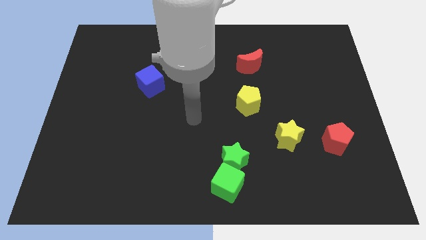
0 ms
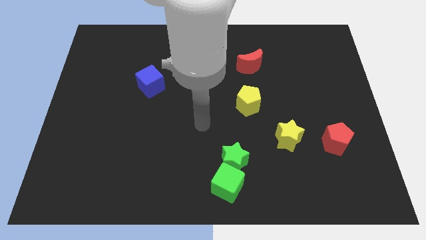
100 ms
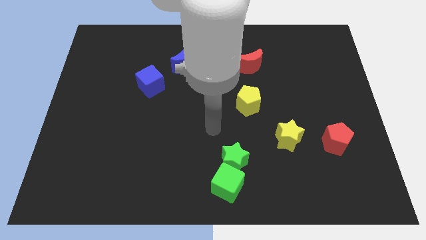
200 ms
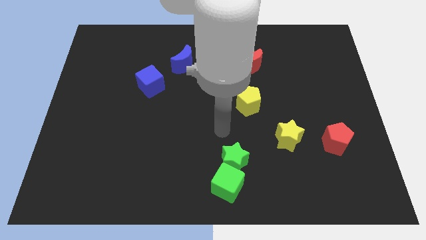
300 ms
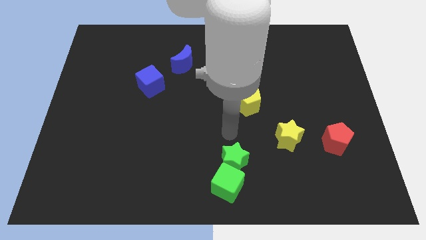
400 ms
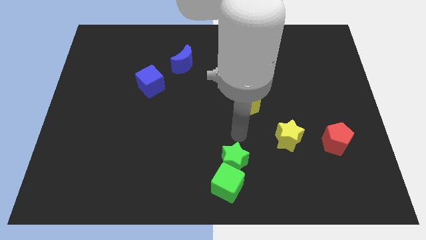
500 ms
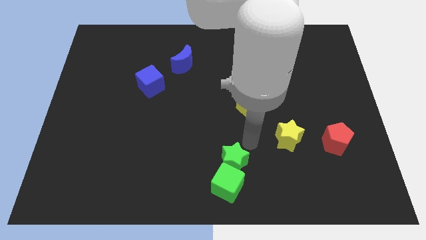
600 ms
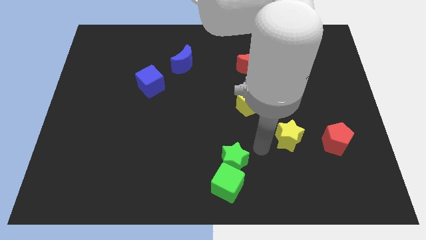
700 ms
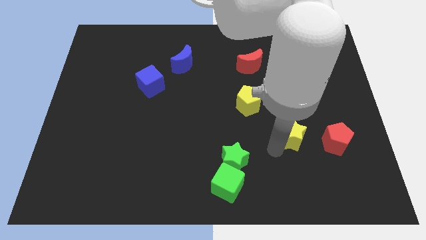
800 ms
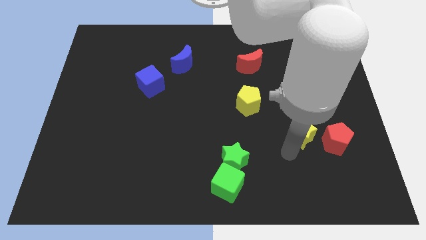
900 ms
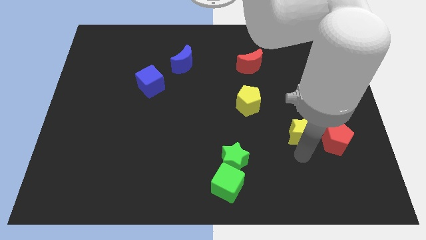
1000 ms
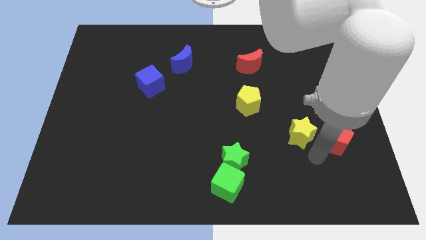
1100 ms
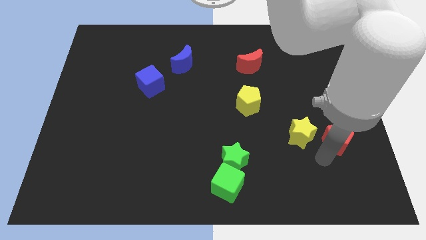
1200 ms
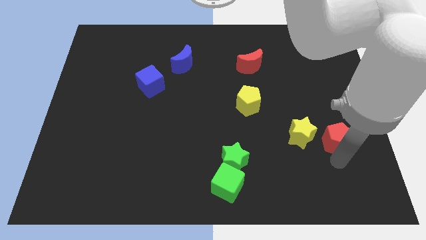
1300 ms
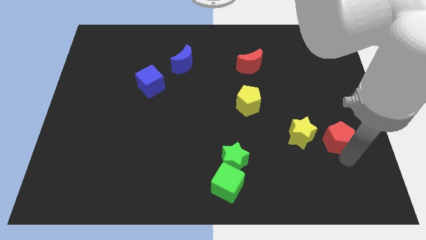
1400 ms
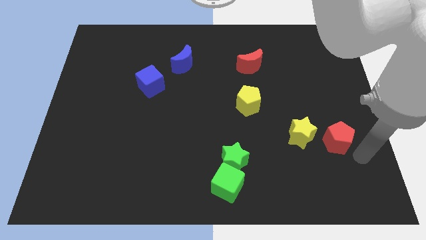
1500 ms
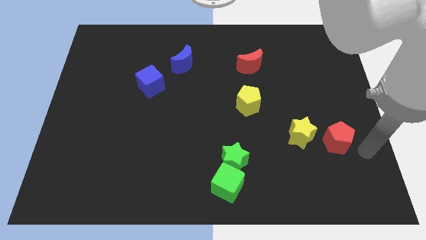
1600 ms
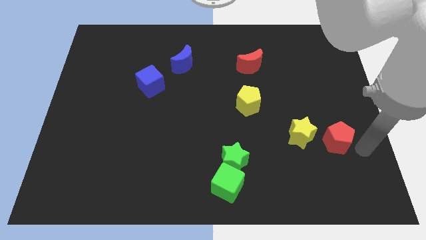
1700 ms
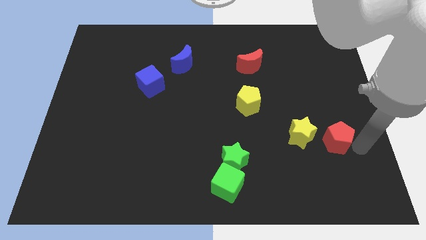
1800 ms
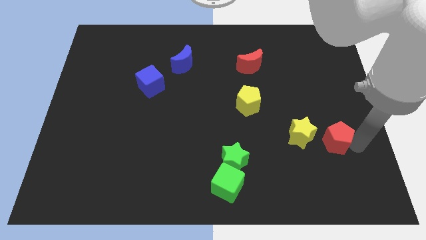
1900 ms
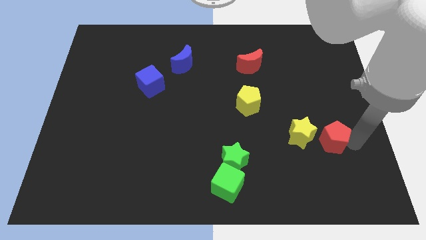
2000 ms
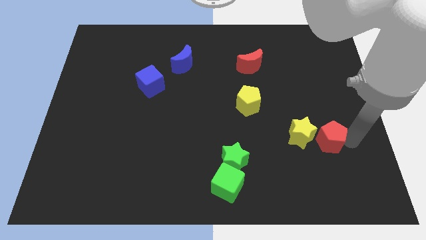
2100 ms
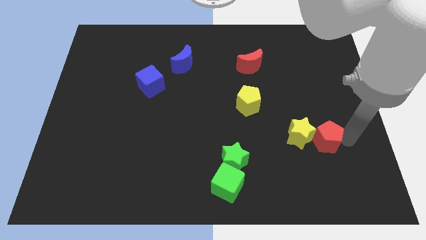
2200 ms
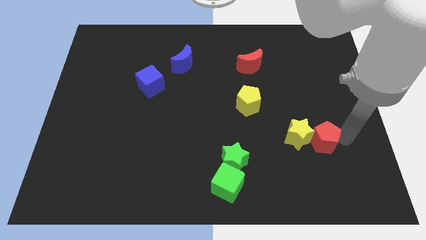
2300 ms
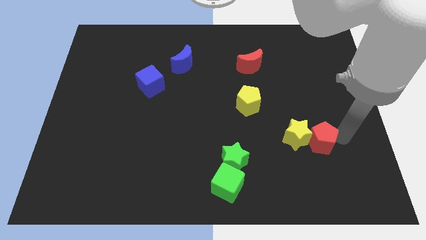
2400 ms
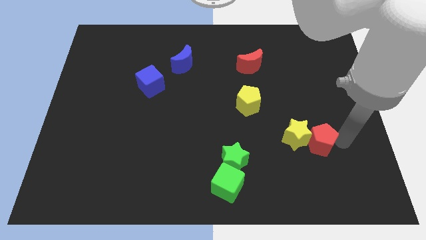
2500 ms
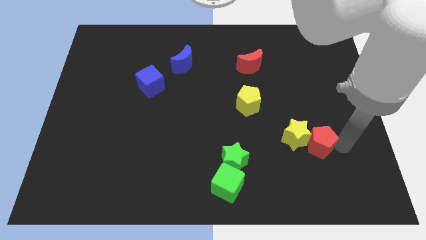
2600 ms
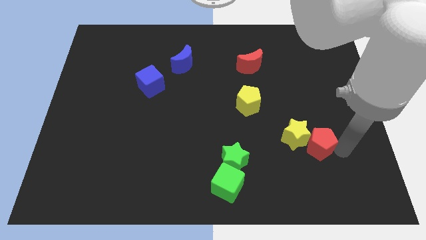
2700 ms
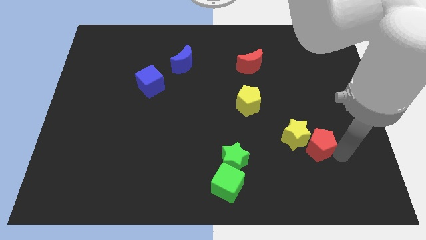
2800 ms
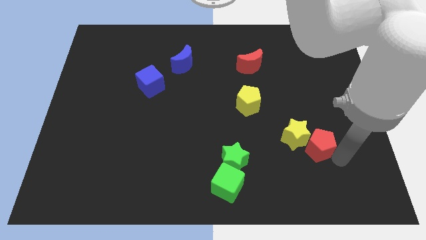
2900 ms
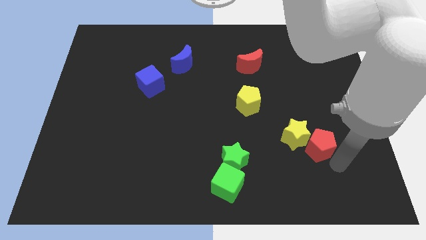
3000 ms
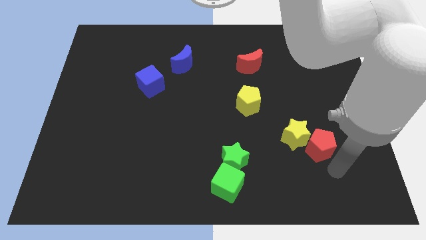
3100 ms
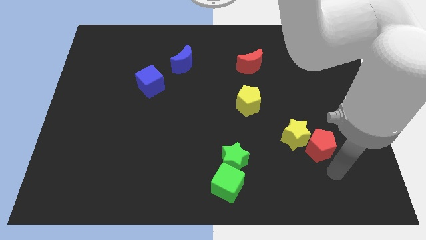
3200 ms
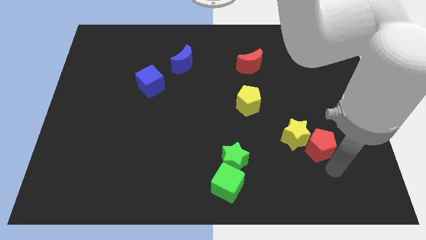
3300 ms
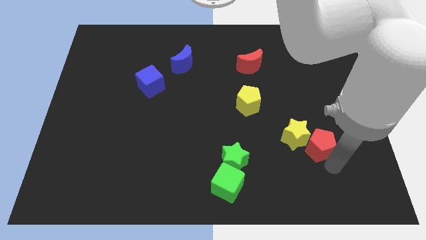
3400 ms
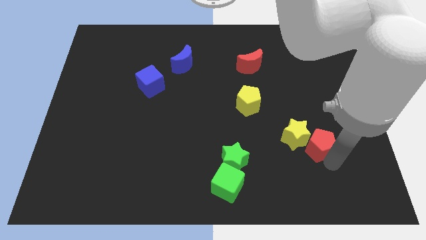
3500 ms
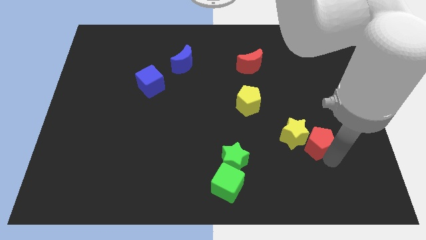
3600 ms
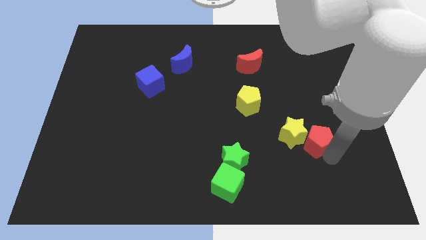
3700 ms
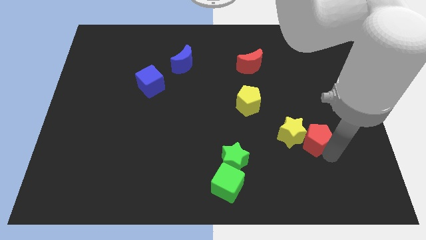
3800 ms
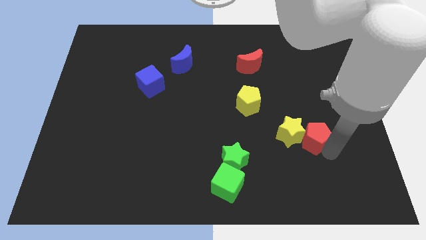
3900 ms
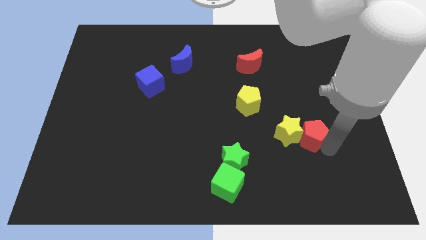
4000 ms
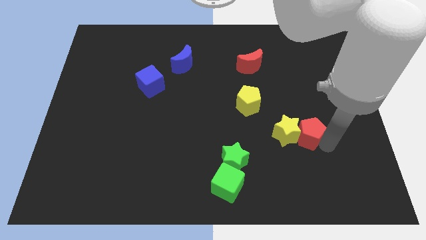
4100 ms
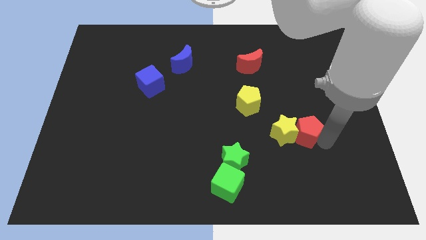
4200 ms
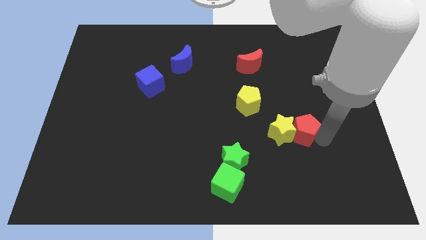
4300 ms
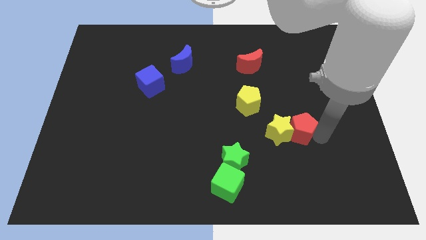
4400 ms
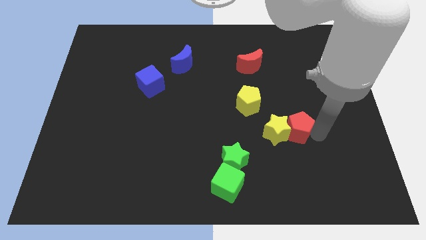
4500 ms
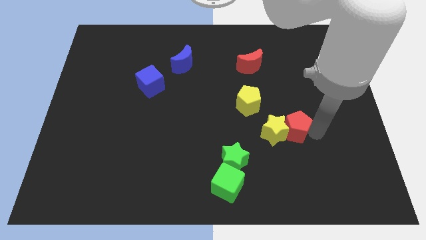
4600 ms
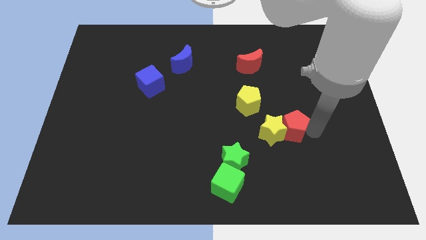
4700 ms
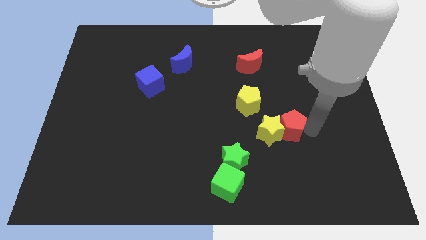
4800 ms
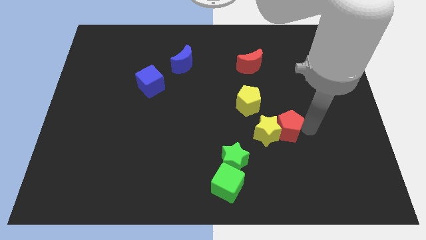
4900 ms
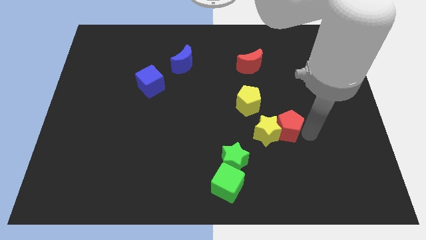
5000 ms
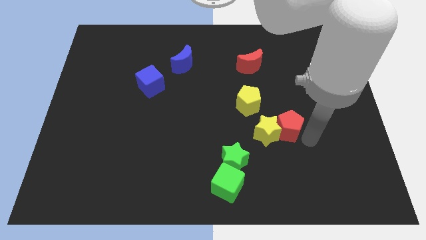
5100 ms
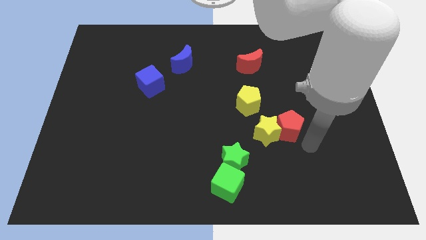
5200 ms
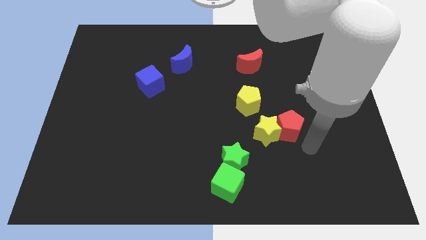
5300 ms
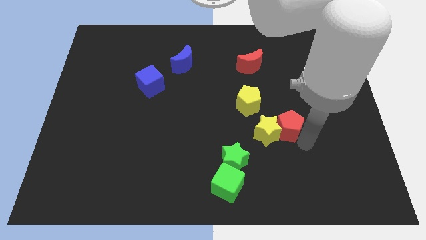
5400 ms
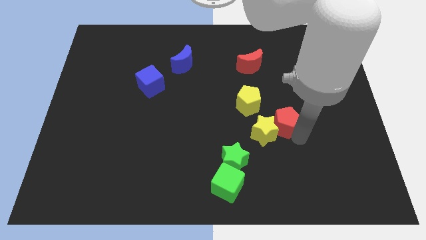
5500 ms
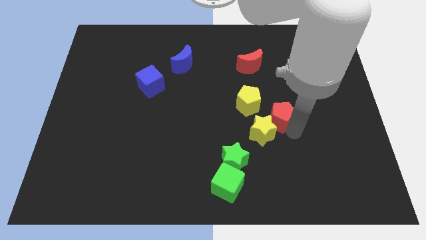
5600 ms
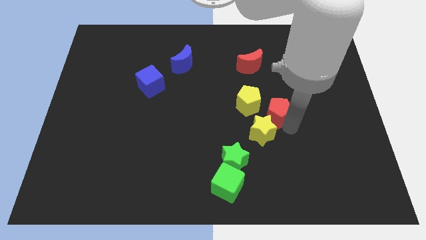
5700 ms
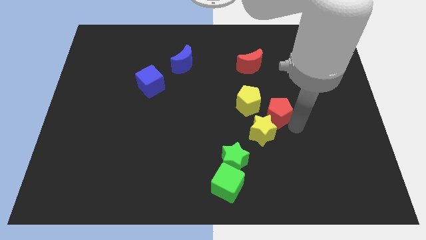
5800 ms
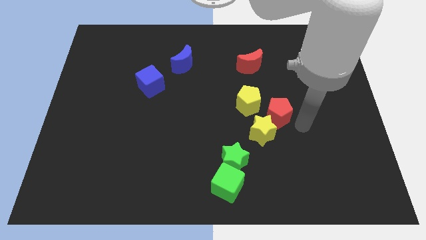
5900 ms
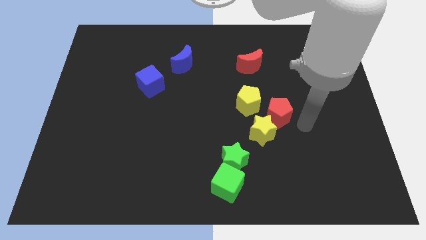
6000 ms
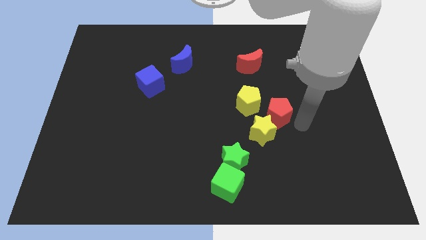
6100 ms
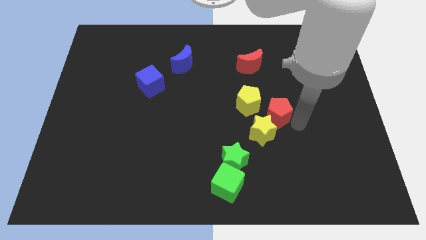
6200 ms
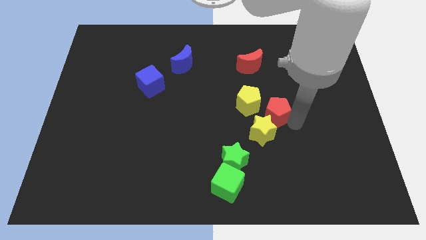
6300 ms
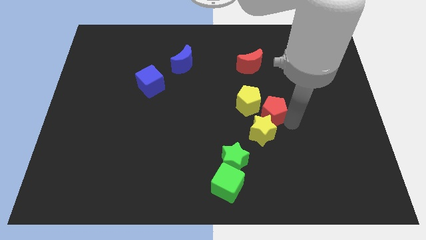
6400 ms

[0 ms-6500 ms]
put the red pentagon close to the yellow pentagon
